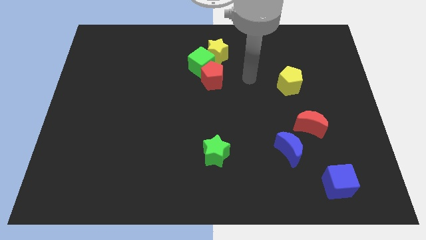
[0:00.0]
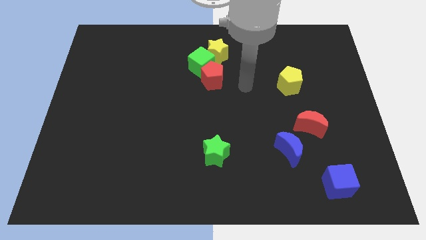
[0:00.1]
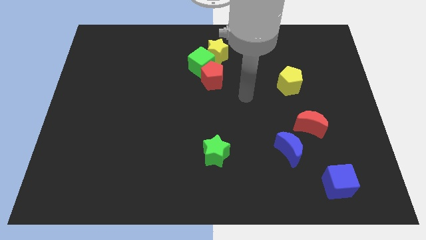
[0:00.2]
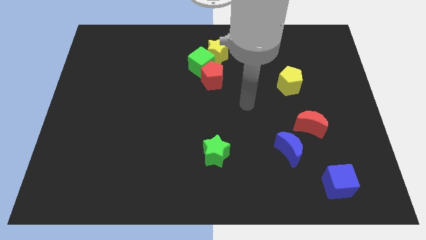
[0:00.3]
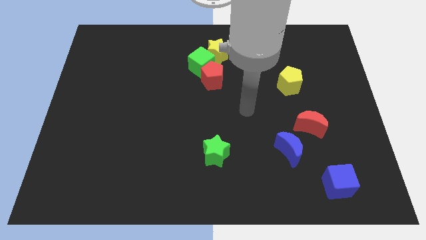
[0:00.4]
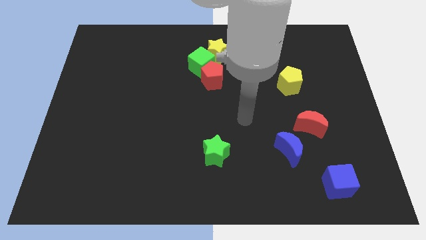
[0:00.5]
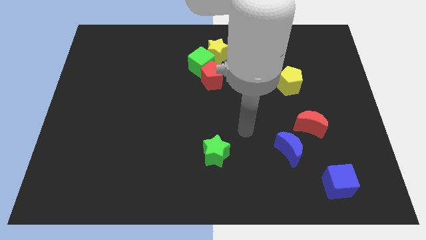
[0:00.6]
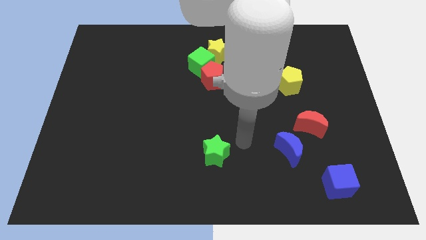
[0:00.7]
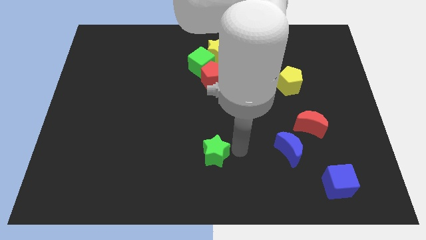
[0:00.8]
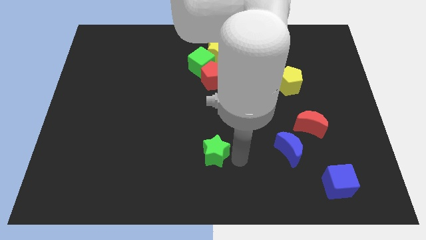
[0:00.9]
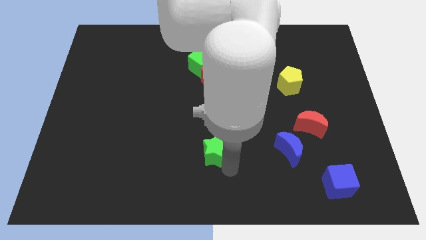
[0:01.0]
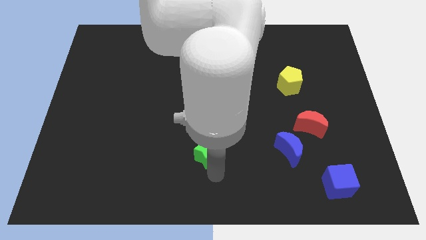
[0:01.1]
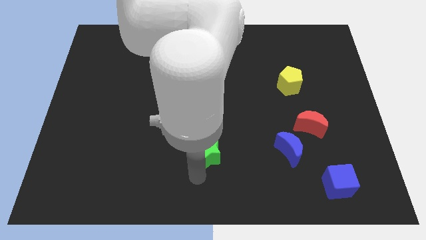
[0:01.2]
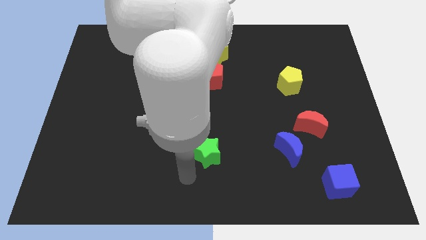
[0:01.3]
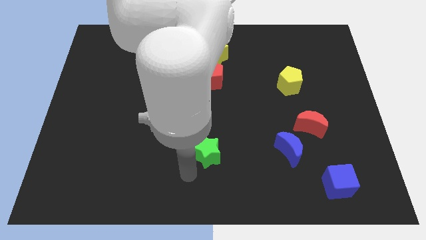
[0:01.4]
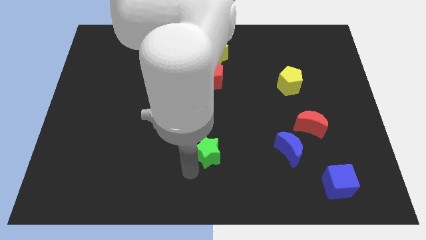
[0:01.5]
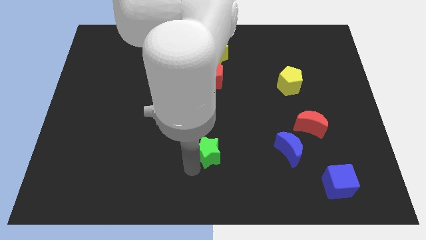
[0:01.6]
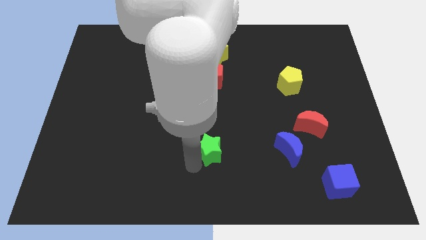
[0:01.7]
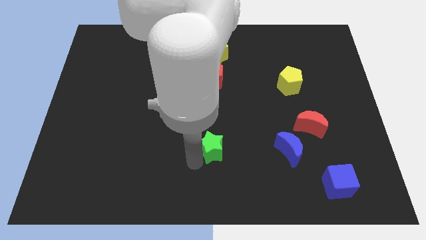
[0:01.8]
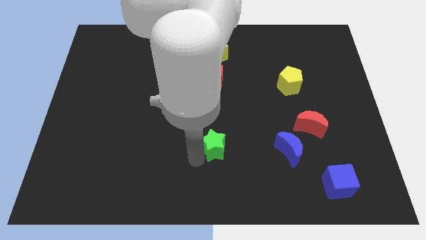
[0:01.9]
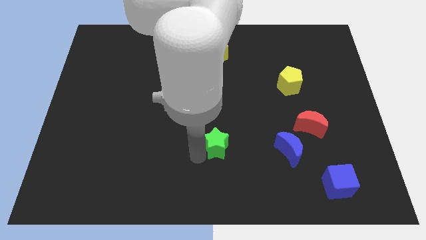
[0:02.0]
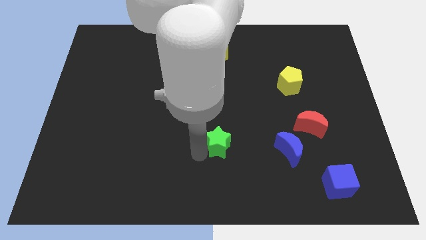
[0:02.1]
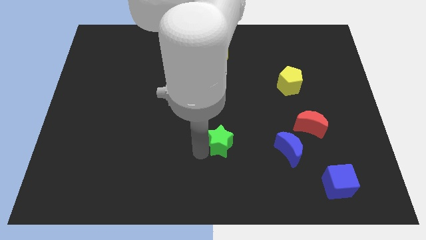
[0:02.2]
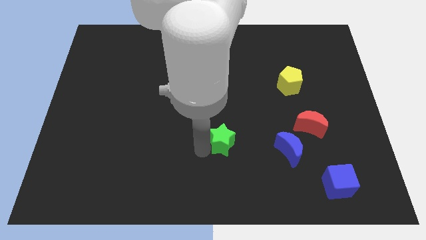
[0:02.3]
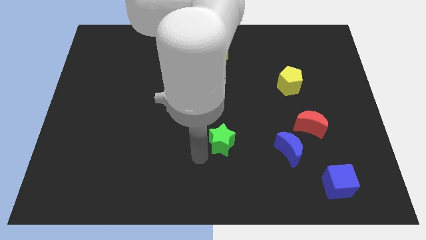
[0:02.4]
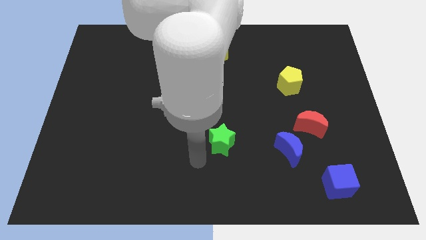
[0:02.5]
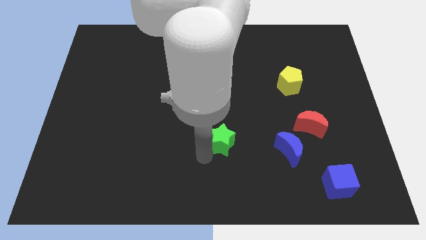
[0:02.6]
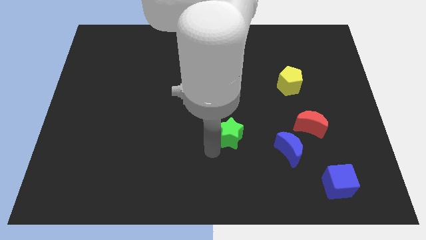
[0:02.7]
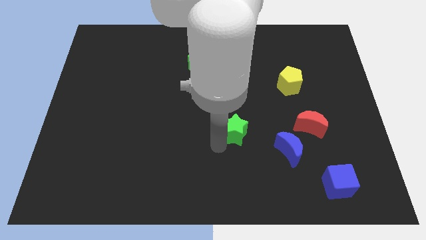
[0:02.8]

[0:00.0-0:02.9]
slide the green star up and to the right a little

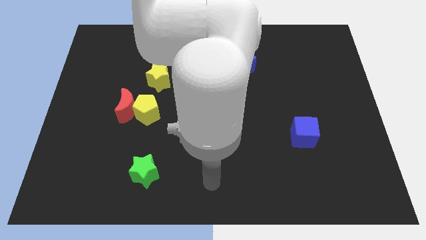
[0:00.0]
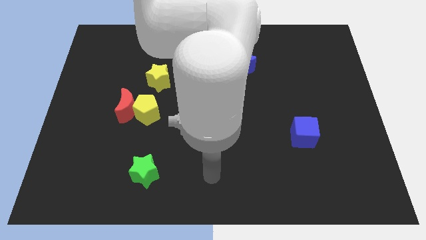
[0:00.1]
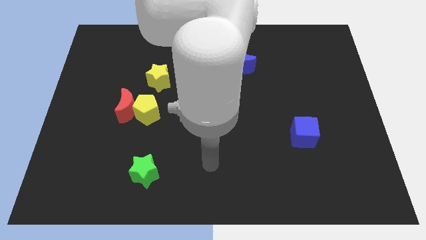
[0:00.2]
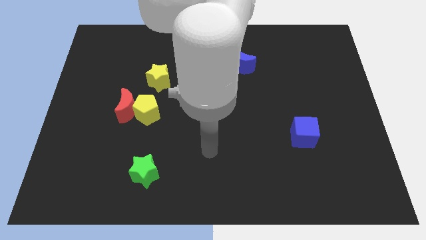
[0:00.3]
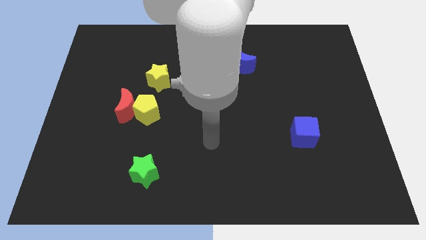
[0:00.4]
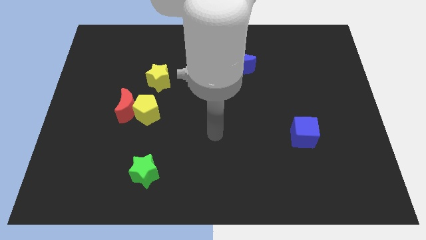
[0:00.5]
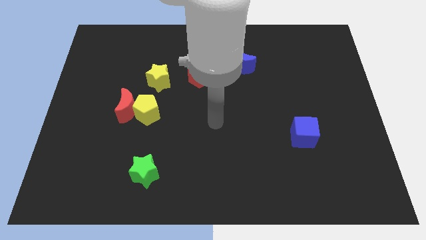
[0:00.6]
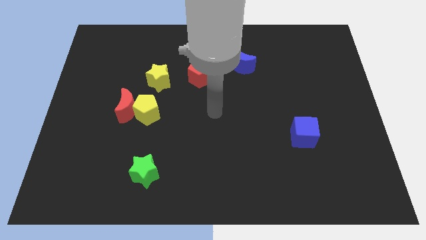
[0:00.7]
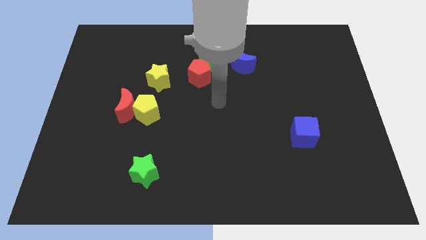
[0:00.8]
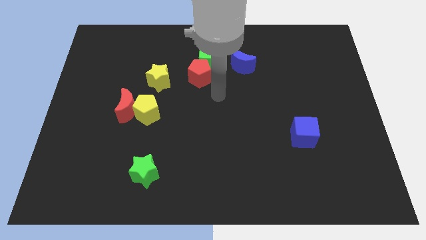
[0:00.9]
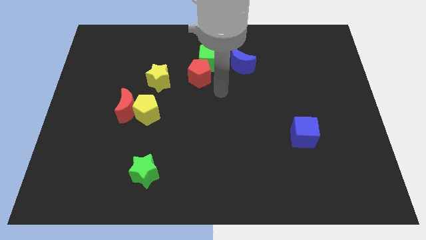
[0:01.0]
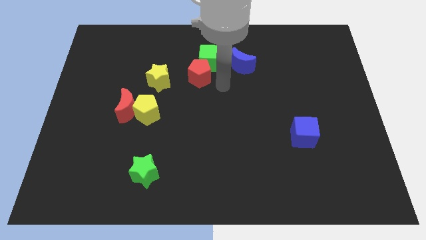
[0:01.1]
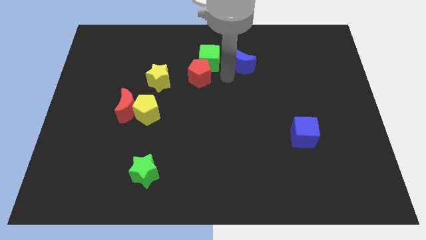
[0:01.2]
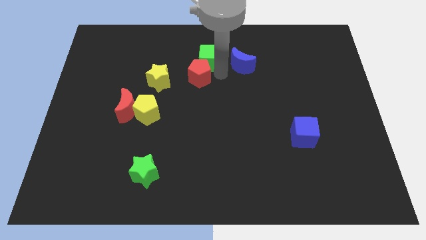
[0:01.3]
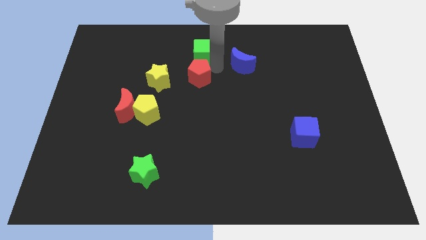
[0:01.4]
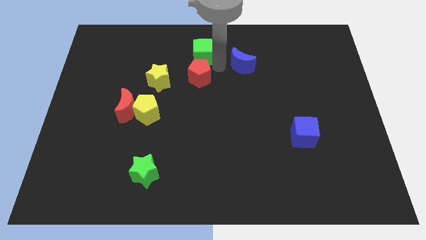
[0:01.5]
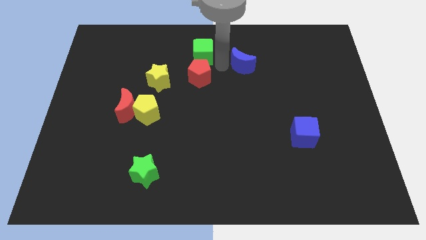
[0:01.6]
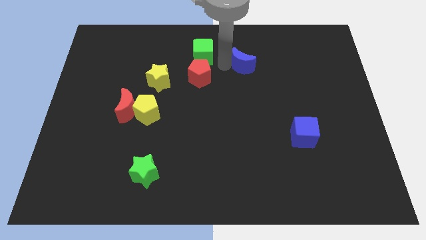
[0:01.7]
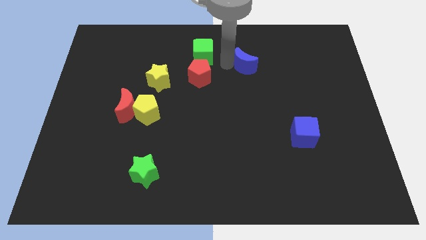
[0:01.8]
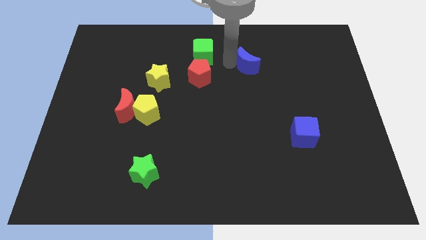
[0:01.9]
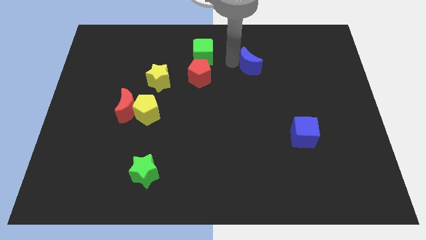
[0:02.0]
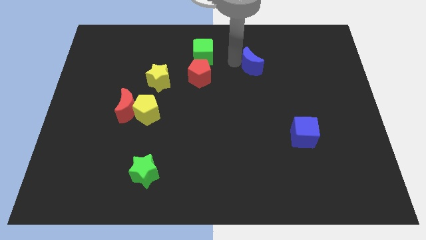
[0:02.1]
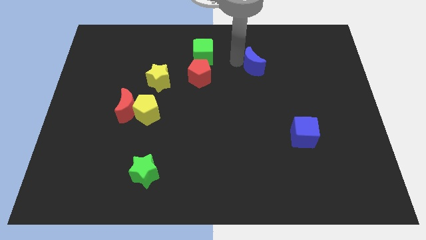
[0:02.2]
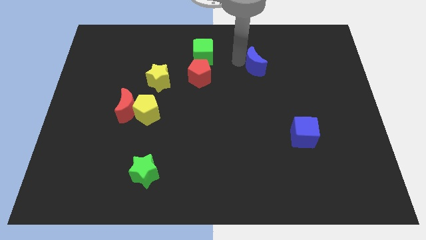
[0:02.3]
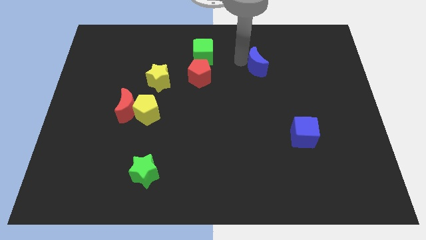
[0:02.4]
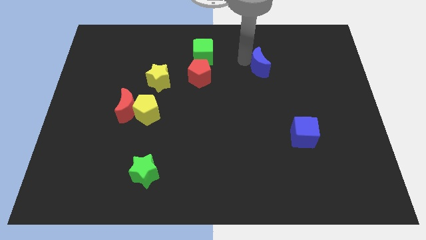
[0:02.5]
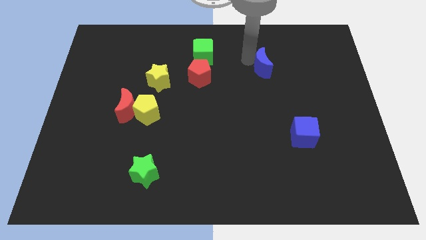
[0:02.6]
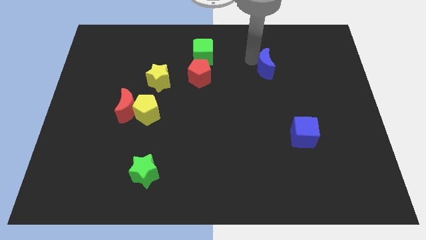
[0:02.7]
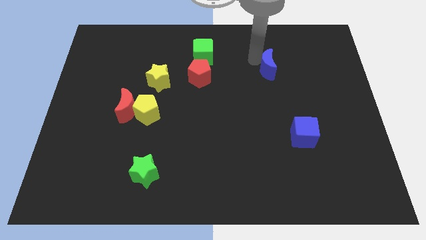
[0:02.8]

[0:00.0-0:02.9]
slide the blue moon slightly right

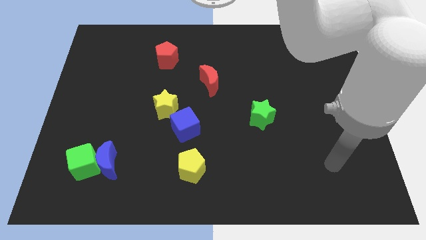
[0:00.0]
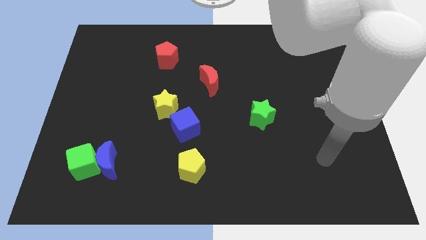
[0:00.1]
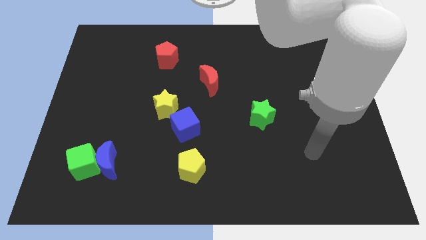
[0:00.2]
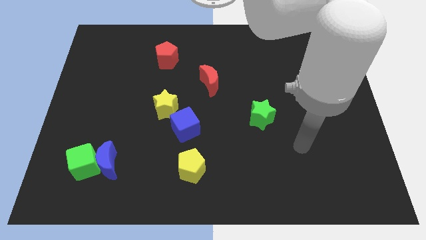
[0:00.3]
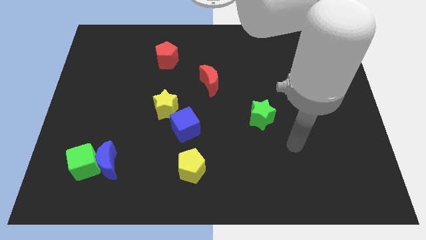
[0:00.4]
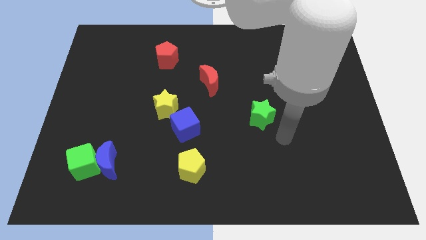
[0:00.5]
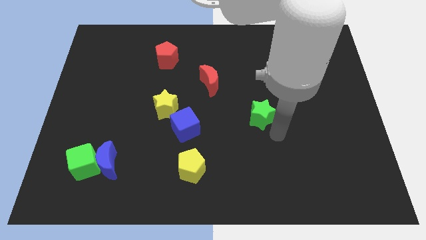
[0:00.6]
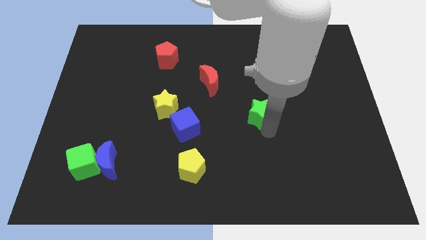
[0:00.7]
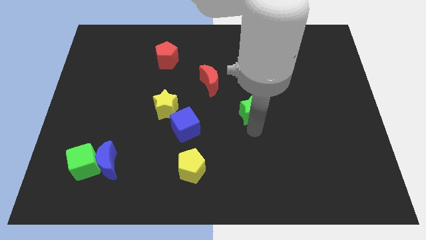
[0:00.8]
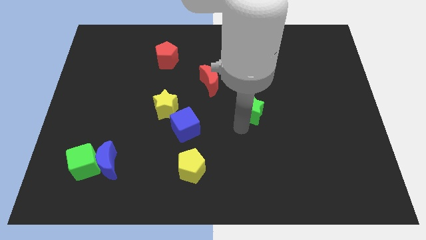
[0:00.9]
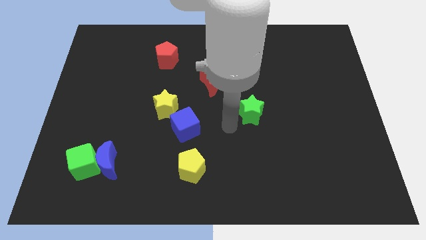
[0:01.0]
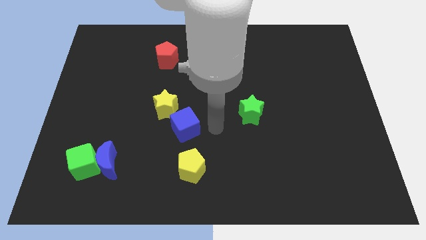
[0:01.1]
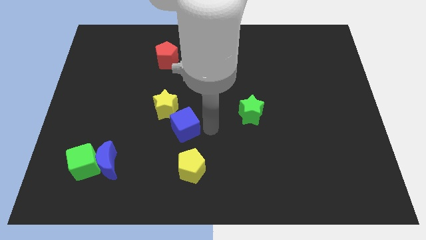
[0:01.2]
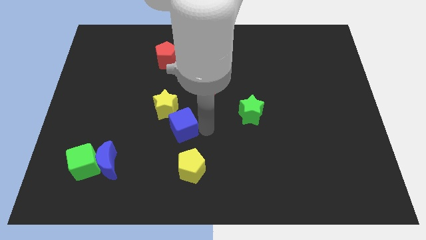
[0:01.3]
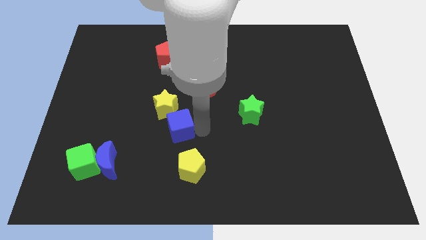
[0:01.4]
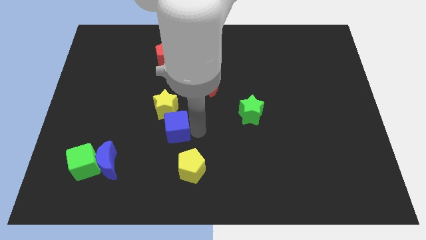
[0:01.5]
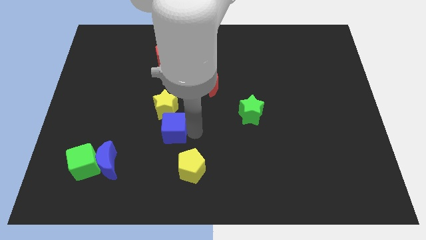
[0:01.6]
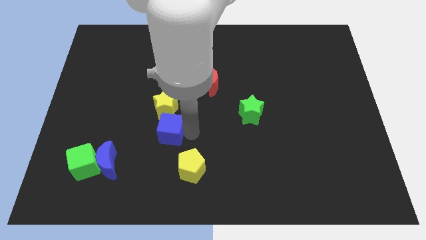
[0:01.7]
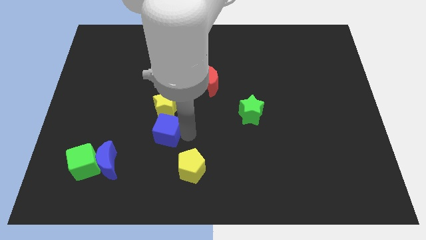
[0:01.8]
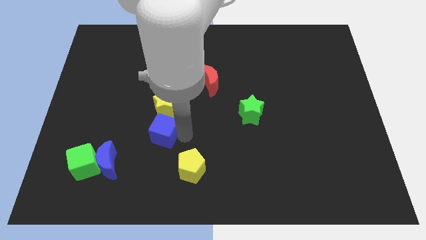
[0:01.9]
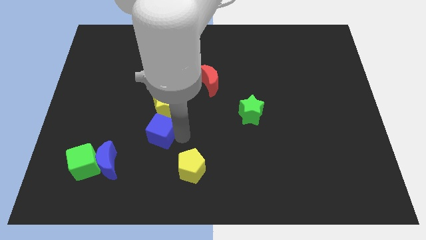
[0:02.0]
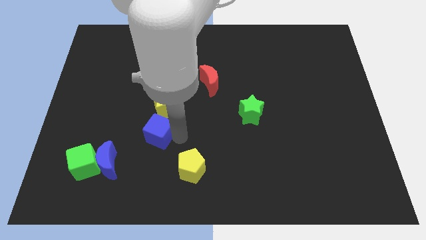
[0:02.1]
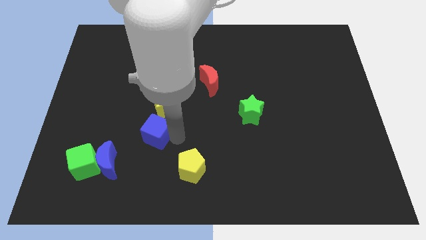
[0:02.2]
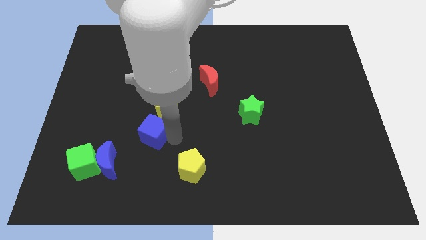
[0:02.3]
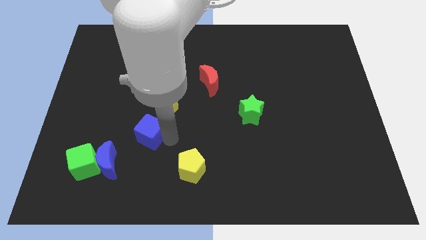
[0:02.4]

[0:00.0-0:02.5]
push the blue cube to the left slightly
